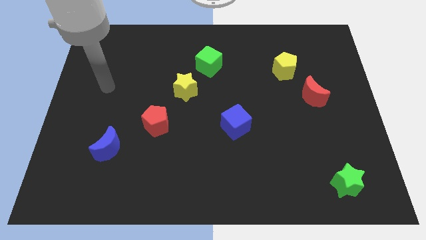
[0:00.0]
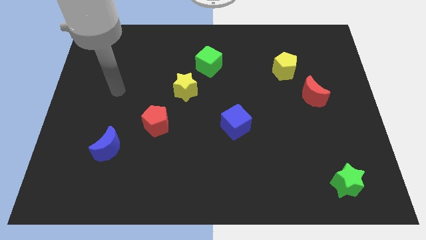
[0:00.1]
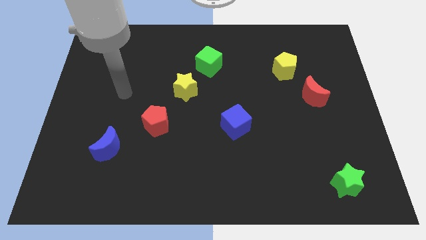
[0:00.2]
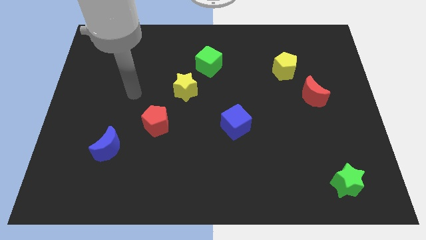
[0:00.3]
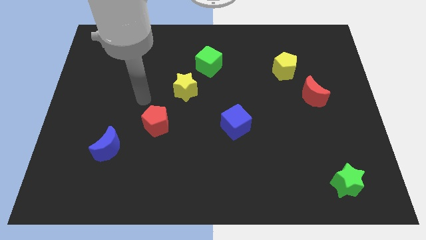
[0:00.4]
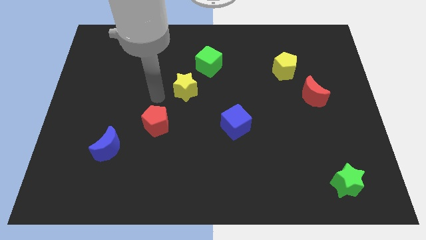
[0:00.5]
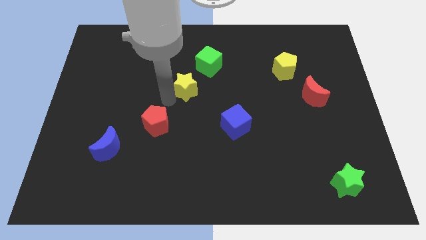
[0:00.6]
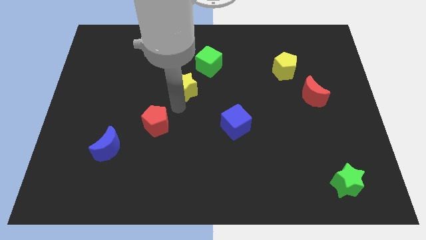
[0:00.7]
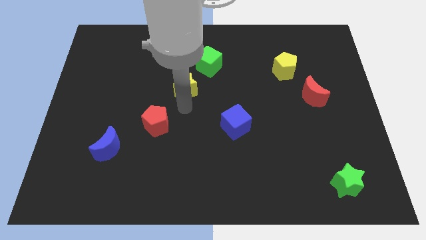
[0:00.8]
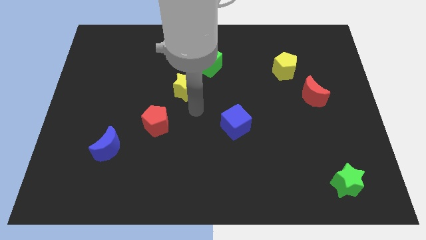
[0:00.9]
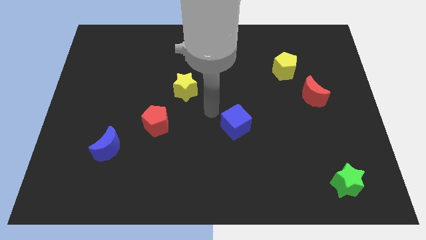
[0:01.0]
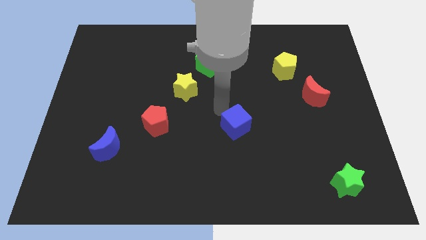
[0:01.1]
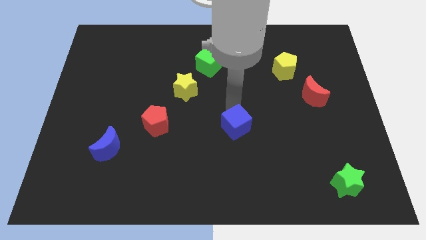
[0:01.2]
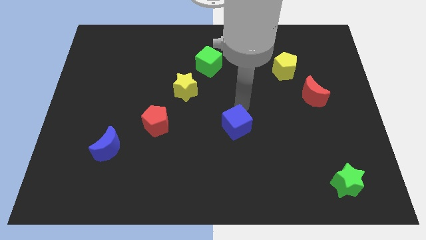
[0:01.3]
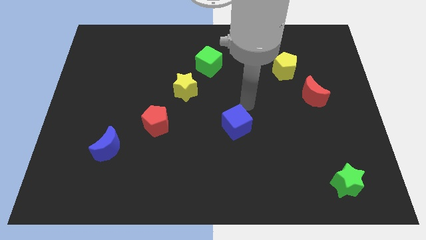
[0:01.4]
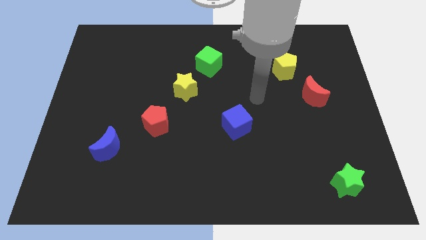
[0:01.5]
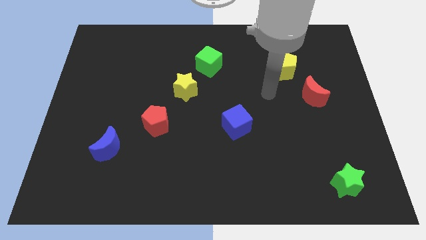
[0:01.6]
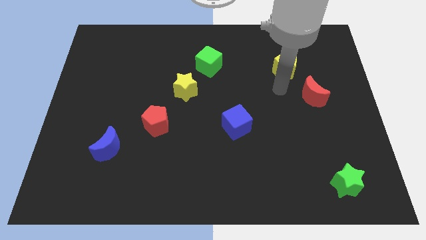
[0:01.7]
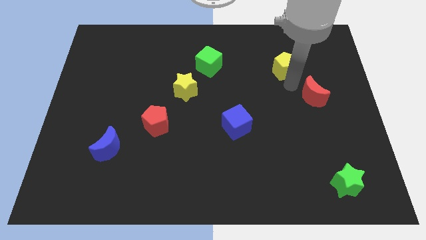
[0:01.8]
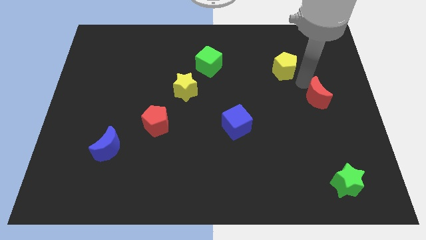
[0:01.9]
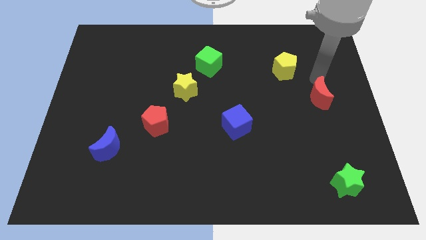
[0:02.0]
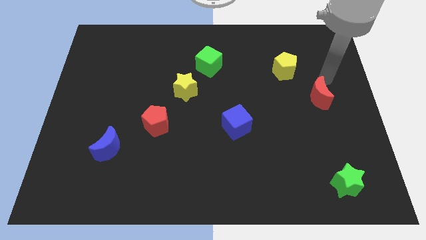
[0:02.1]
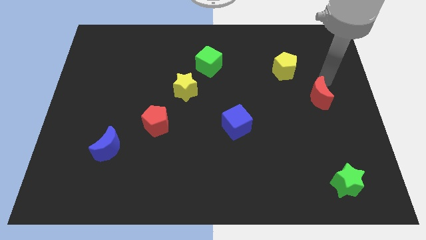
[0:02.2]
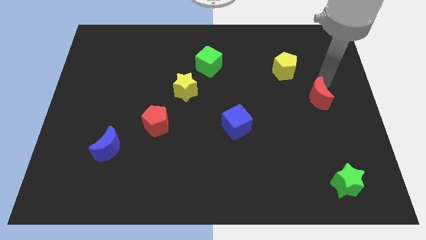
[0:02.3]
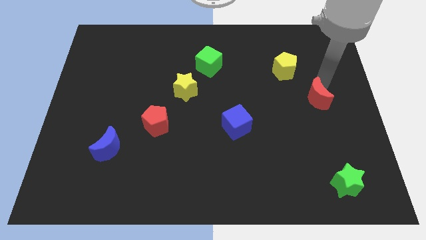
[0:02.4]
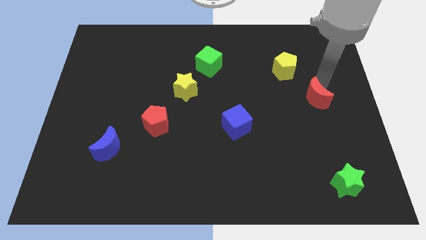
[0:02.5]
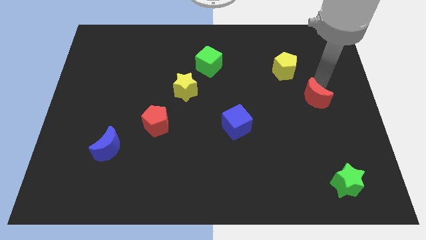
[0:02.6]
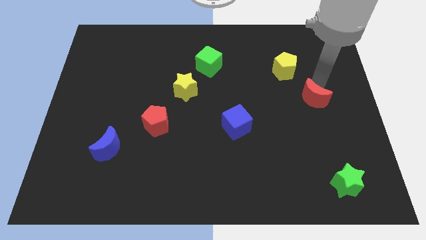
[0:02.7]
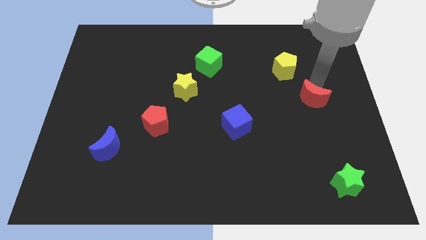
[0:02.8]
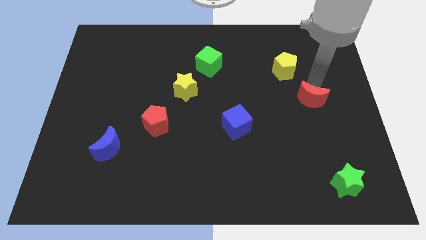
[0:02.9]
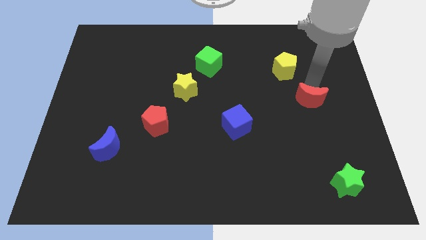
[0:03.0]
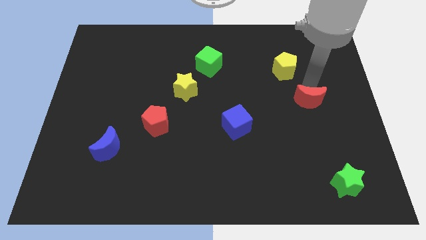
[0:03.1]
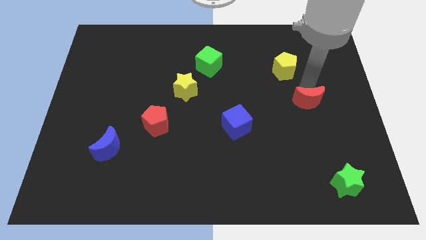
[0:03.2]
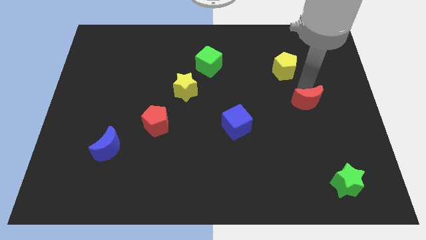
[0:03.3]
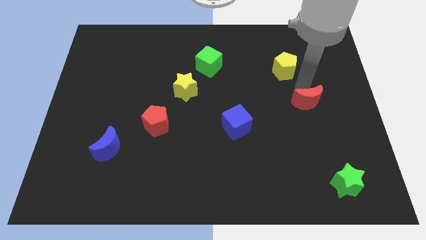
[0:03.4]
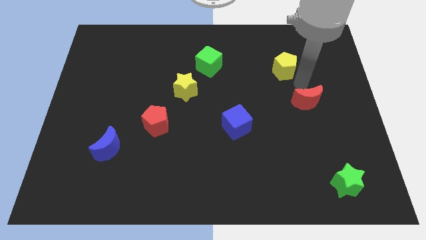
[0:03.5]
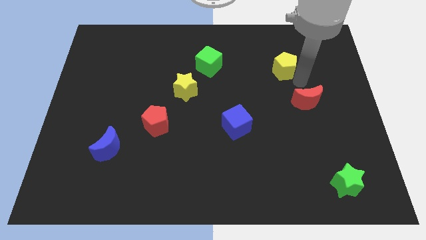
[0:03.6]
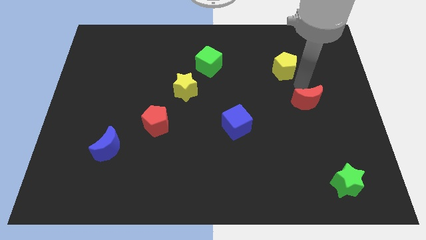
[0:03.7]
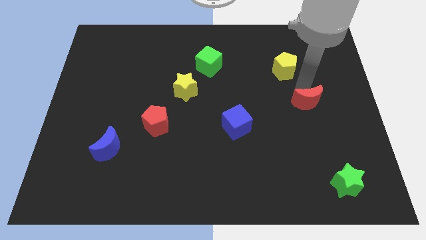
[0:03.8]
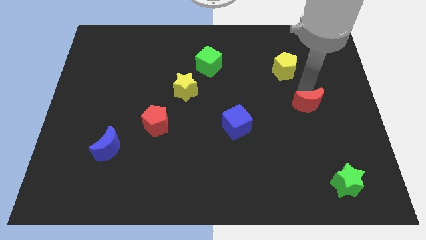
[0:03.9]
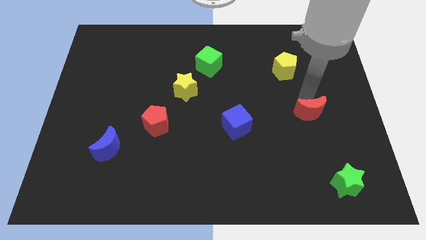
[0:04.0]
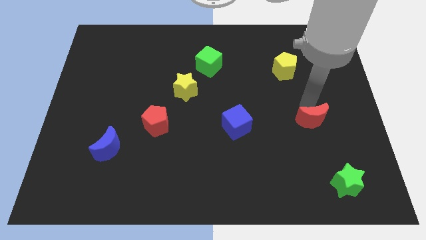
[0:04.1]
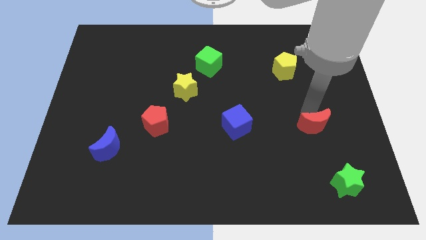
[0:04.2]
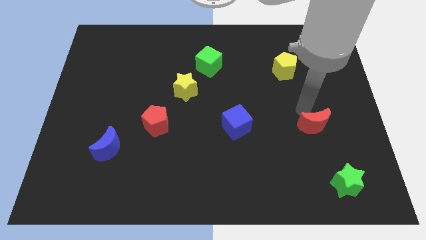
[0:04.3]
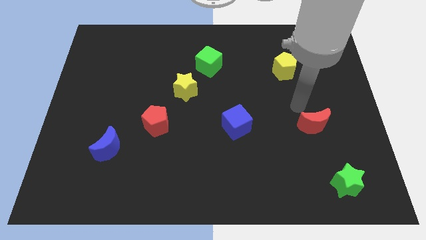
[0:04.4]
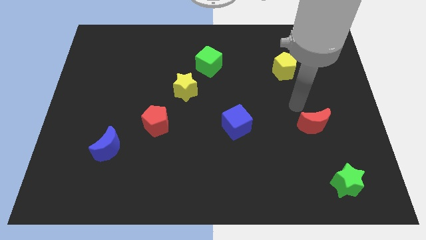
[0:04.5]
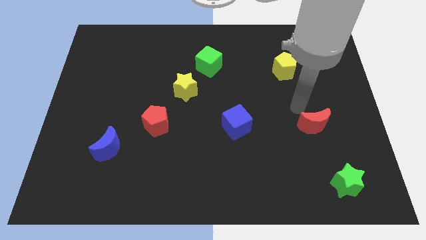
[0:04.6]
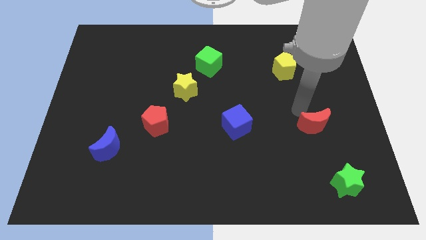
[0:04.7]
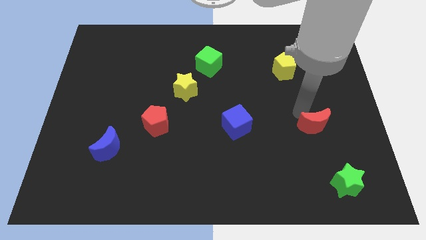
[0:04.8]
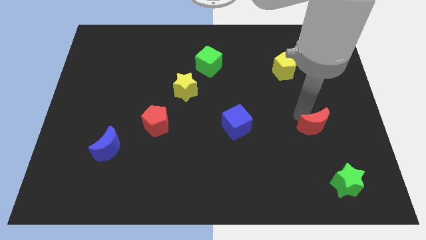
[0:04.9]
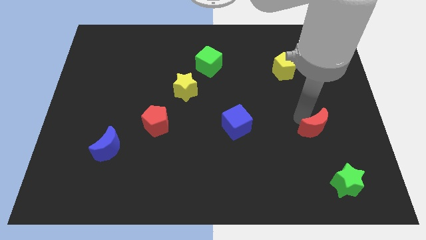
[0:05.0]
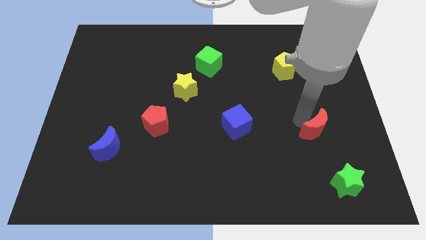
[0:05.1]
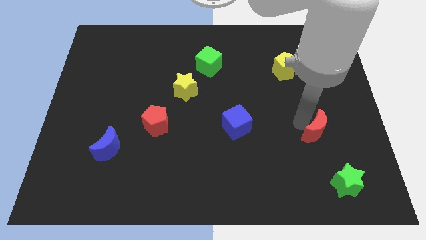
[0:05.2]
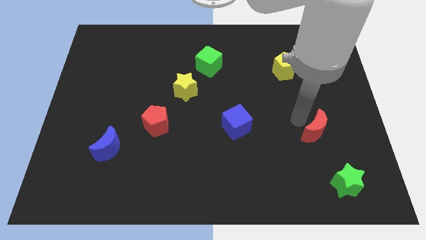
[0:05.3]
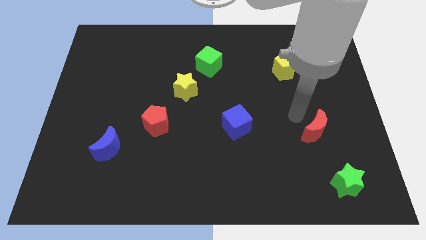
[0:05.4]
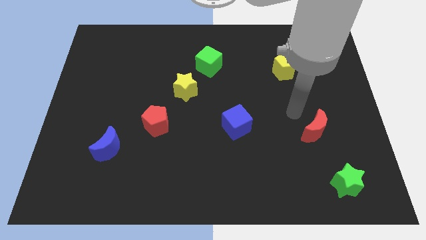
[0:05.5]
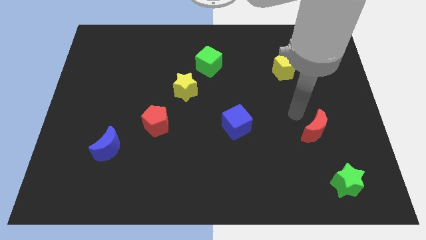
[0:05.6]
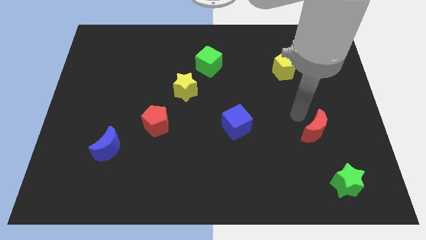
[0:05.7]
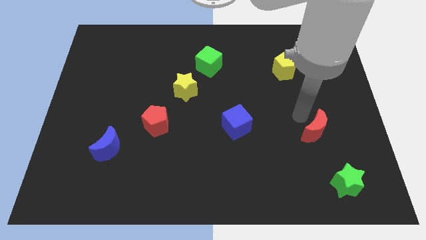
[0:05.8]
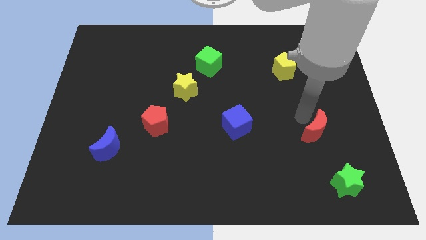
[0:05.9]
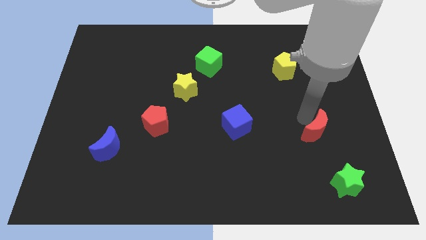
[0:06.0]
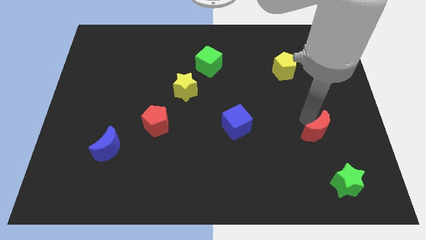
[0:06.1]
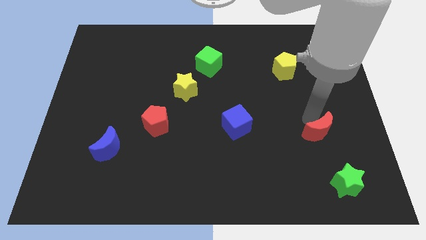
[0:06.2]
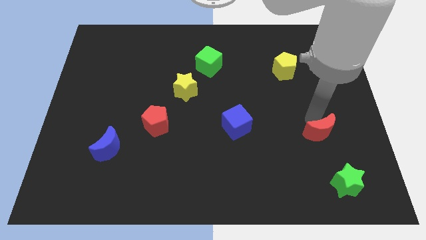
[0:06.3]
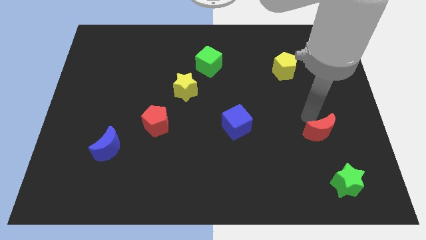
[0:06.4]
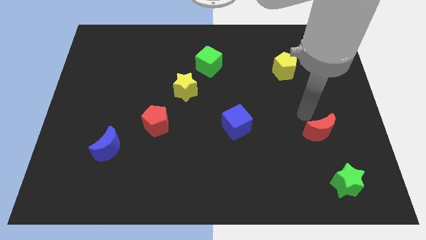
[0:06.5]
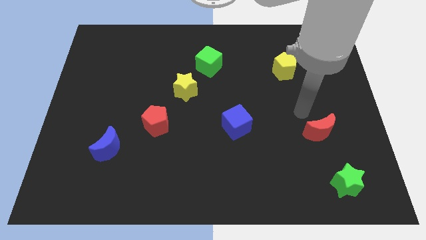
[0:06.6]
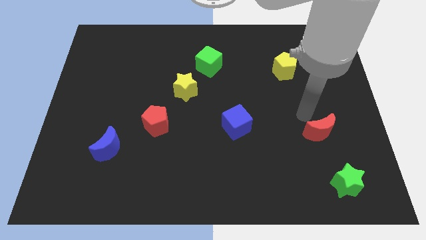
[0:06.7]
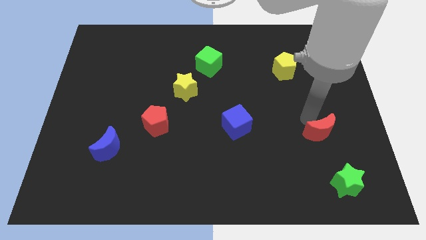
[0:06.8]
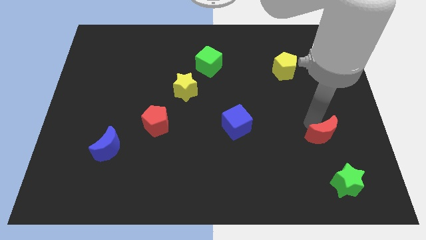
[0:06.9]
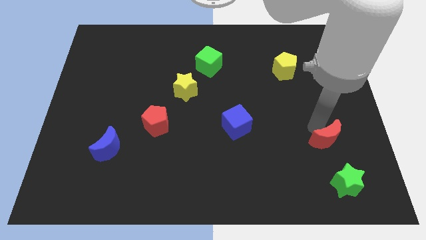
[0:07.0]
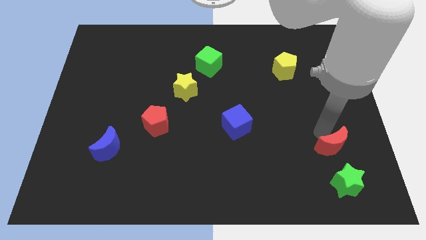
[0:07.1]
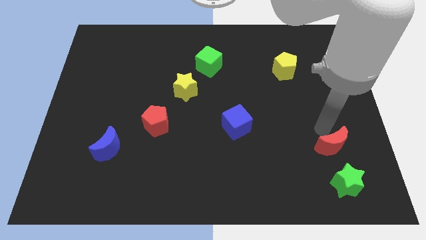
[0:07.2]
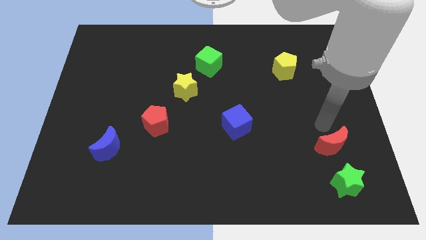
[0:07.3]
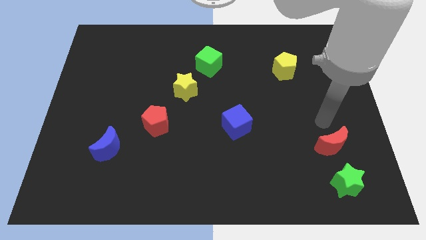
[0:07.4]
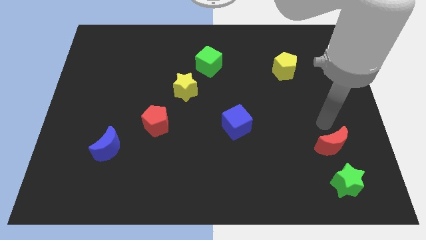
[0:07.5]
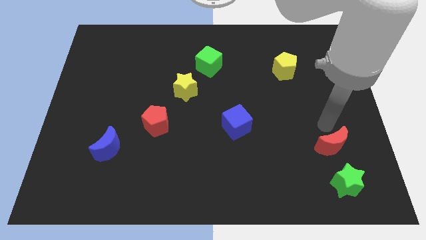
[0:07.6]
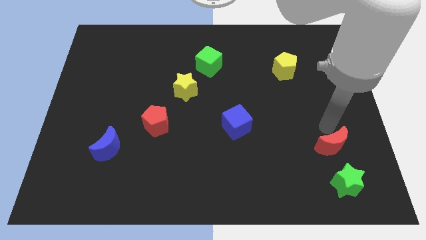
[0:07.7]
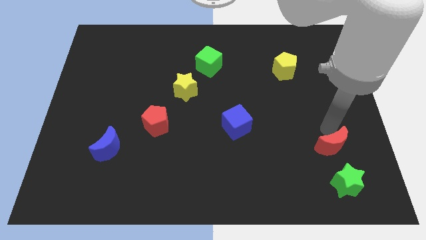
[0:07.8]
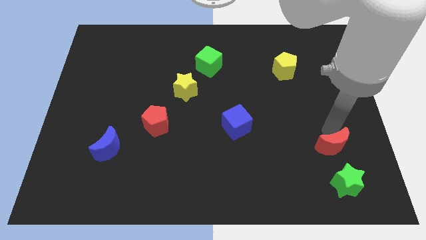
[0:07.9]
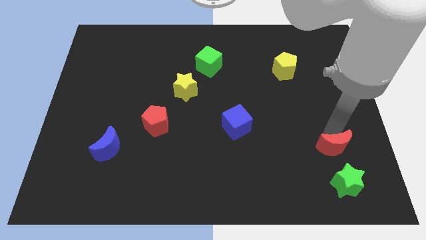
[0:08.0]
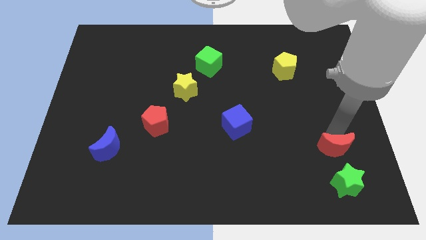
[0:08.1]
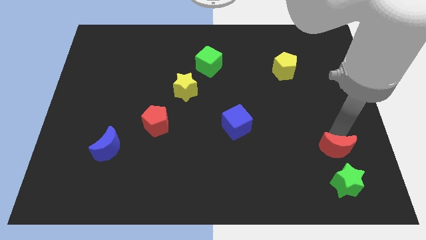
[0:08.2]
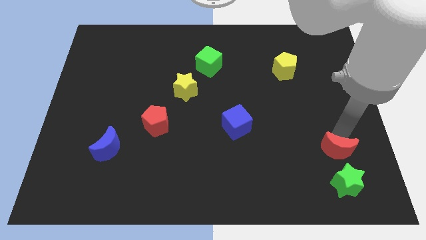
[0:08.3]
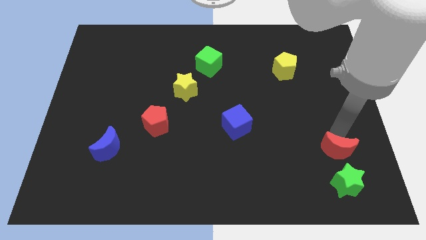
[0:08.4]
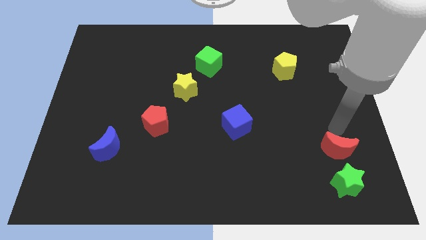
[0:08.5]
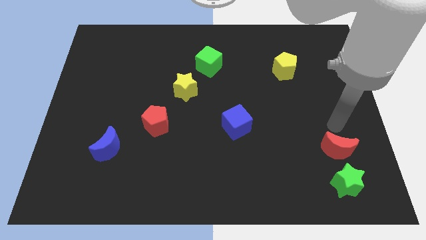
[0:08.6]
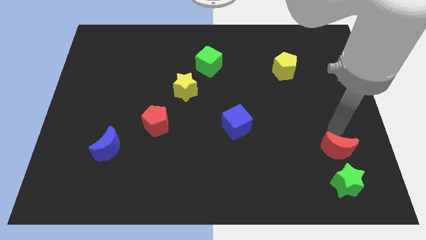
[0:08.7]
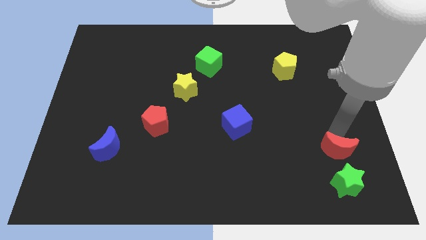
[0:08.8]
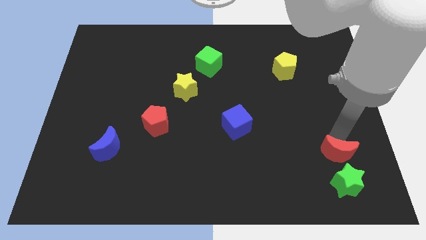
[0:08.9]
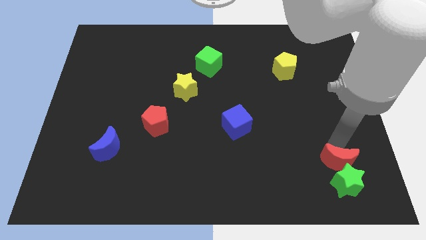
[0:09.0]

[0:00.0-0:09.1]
slide the red moon to the green star
